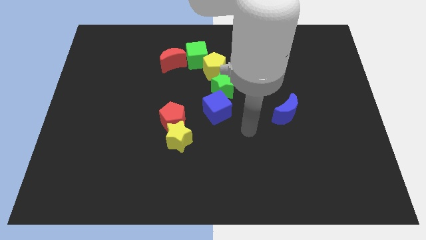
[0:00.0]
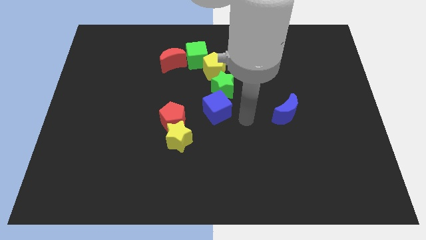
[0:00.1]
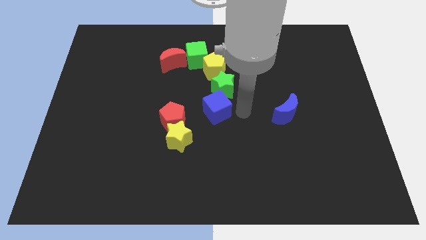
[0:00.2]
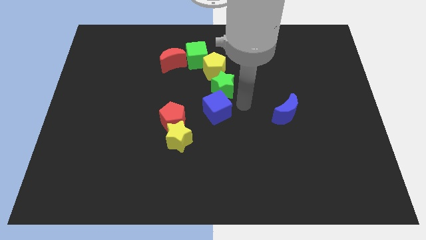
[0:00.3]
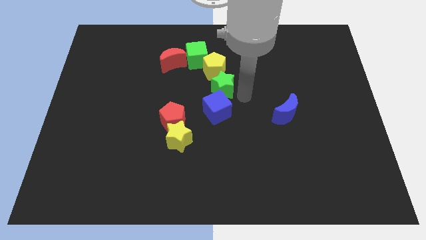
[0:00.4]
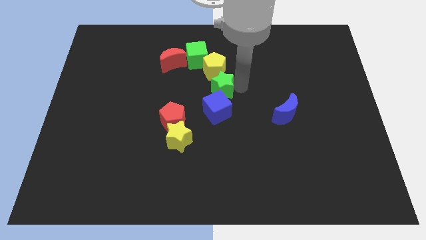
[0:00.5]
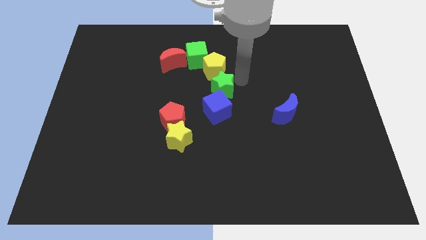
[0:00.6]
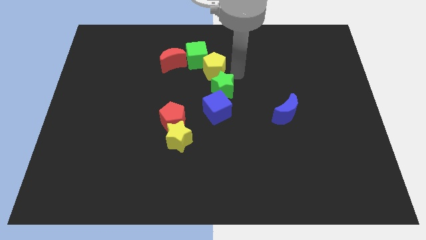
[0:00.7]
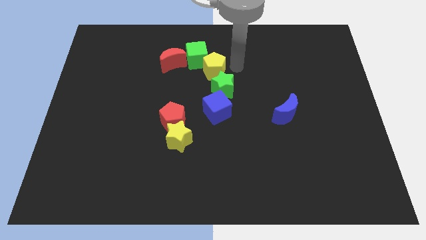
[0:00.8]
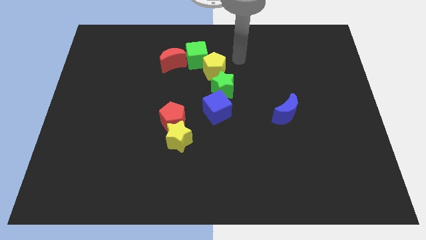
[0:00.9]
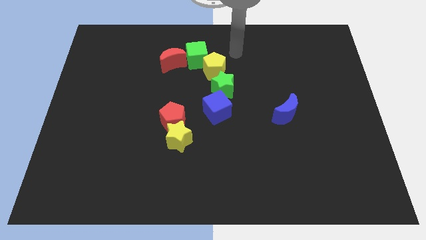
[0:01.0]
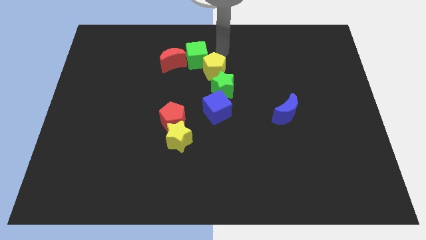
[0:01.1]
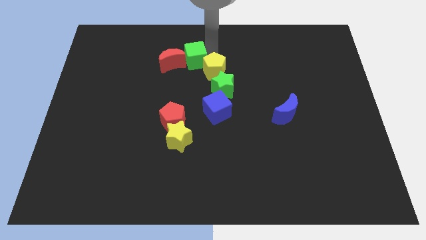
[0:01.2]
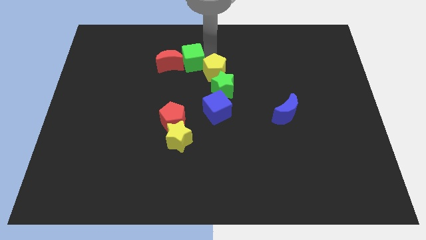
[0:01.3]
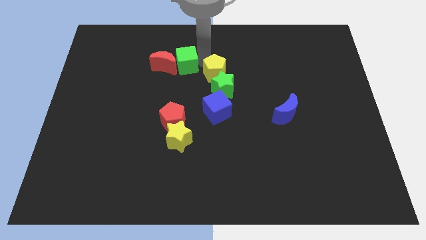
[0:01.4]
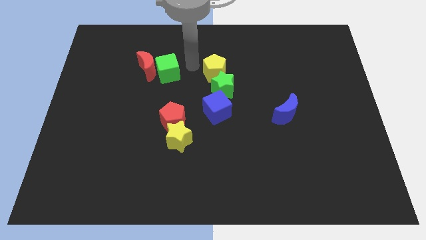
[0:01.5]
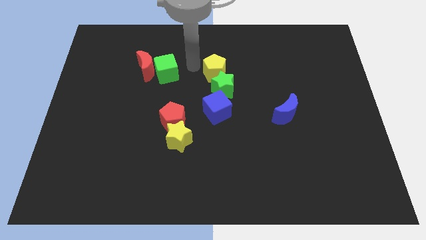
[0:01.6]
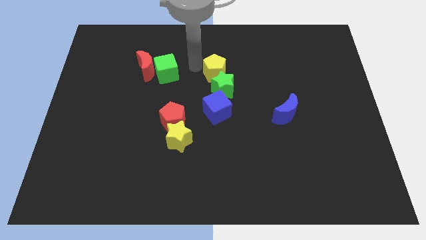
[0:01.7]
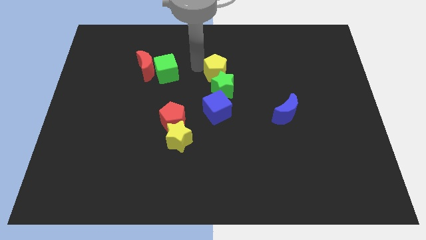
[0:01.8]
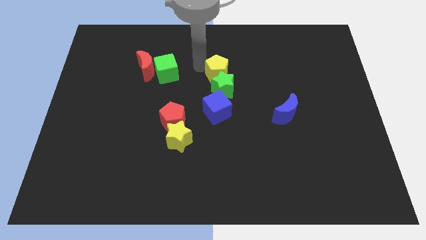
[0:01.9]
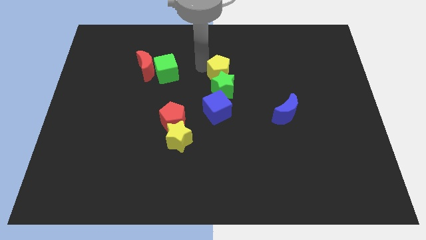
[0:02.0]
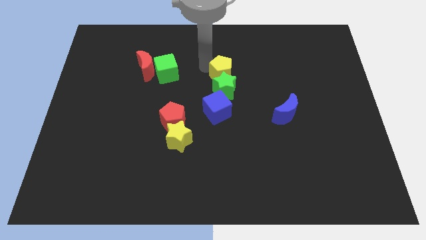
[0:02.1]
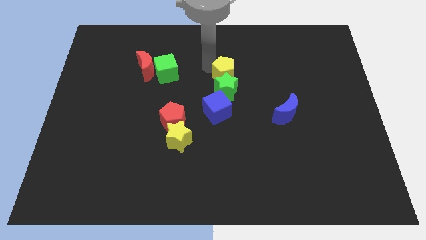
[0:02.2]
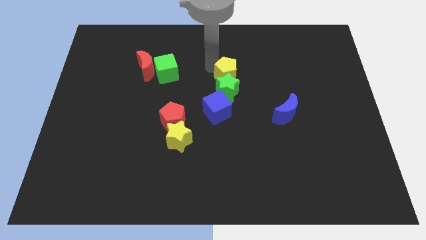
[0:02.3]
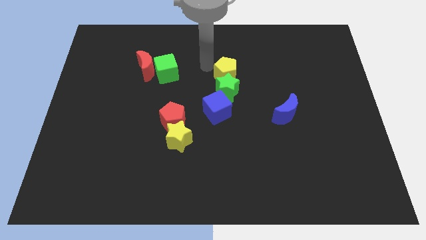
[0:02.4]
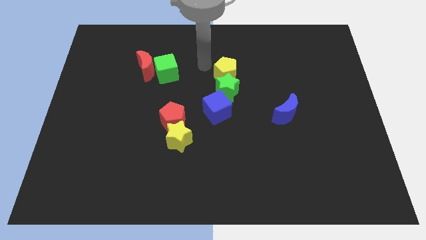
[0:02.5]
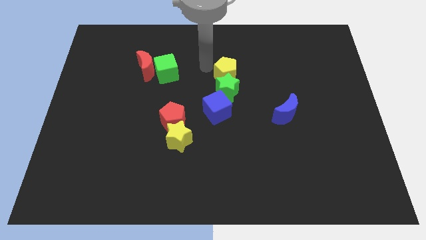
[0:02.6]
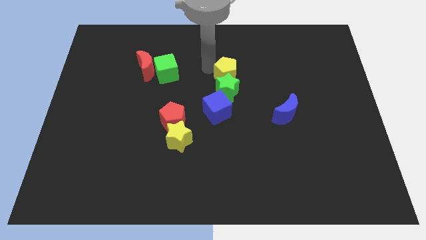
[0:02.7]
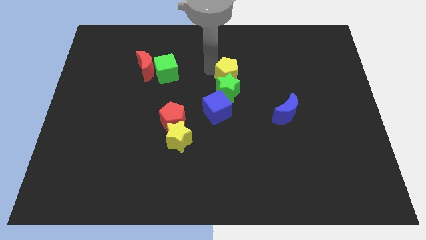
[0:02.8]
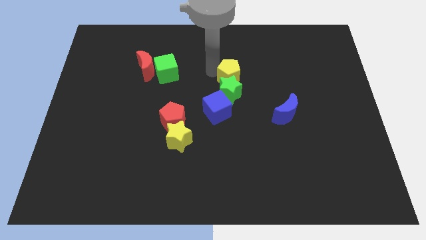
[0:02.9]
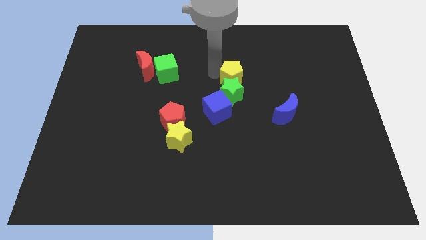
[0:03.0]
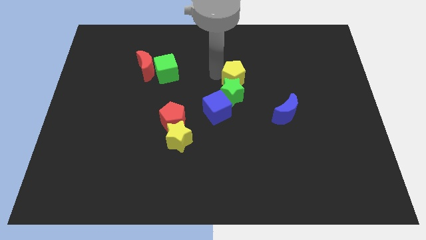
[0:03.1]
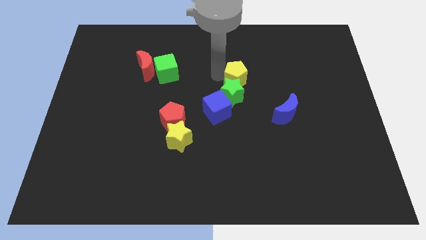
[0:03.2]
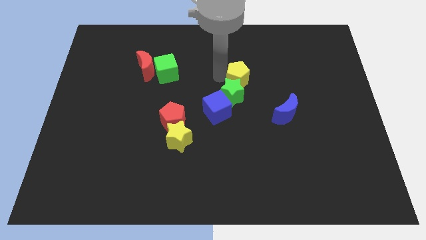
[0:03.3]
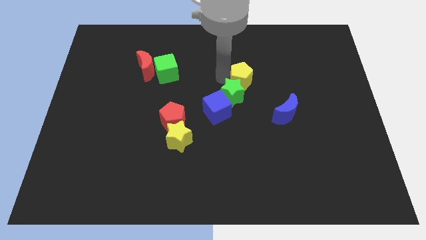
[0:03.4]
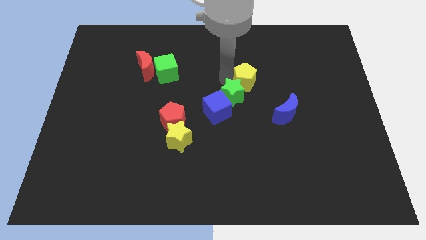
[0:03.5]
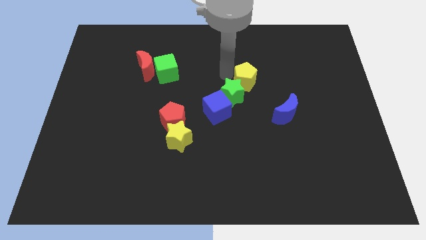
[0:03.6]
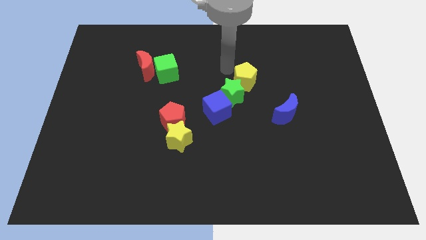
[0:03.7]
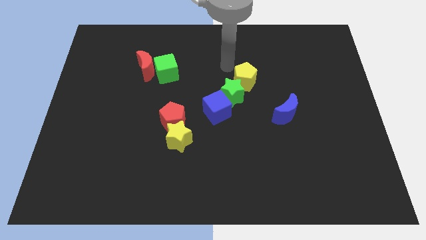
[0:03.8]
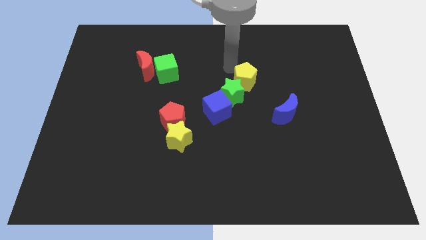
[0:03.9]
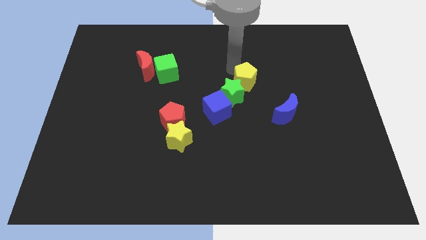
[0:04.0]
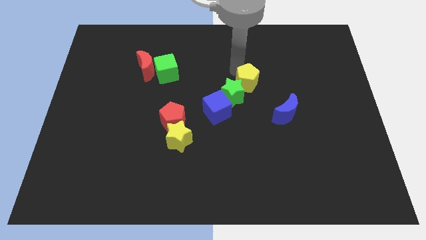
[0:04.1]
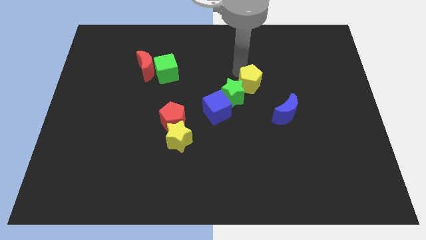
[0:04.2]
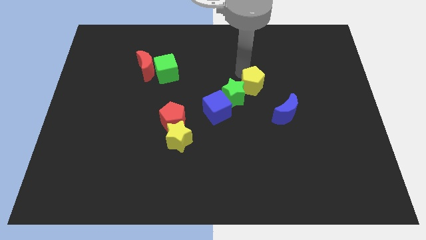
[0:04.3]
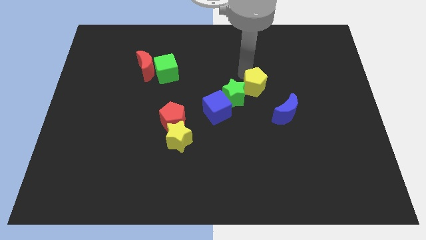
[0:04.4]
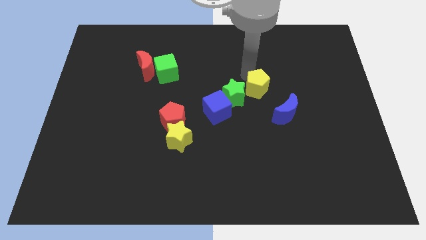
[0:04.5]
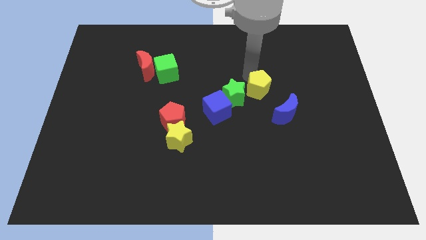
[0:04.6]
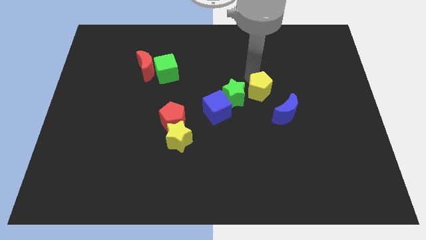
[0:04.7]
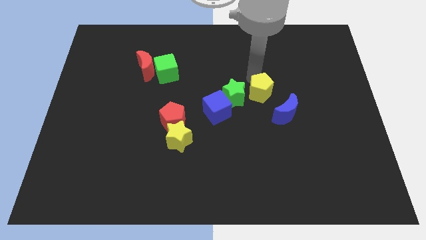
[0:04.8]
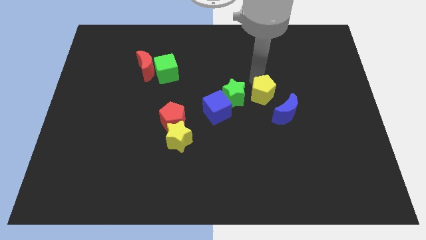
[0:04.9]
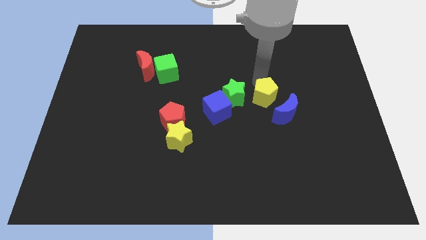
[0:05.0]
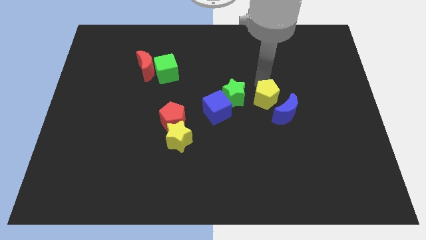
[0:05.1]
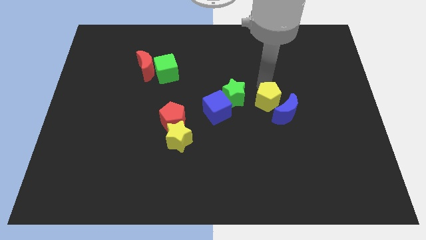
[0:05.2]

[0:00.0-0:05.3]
move the yellow pentagon to the blue moon

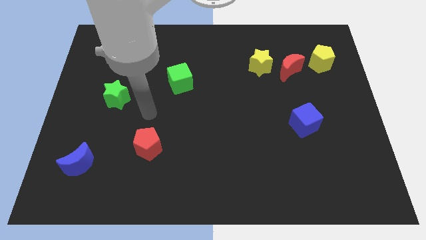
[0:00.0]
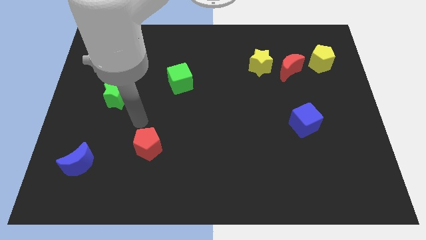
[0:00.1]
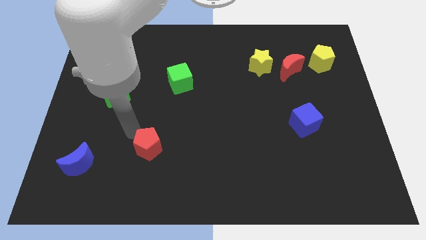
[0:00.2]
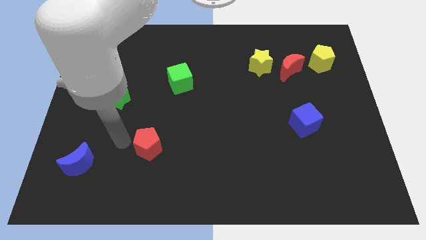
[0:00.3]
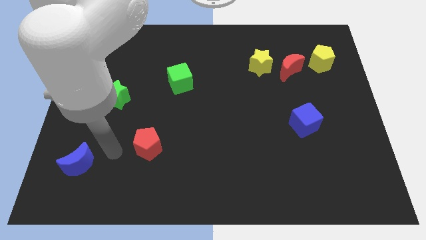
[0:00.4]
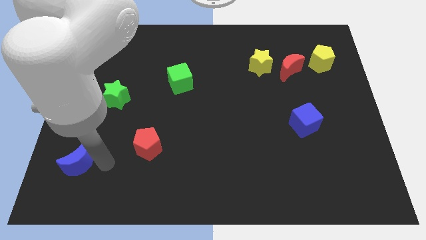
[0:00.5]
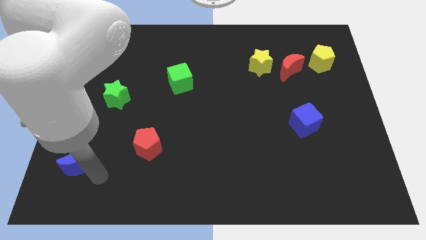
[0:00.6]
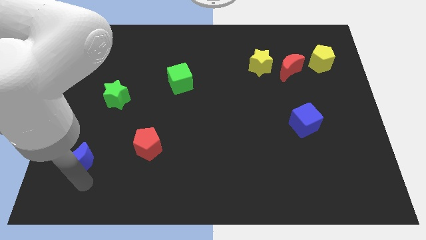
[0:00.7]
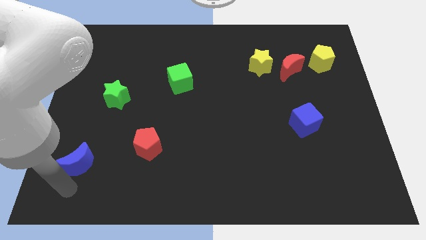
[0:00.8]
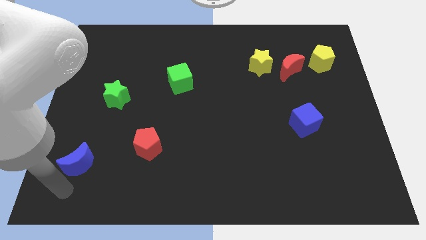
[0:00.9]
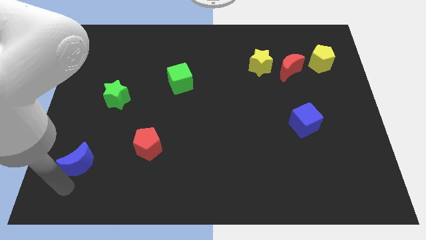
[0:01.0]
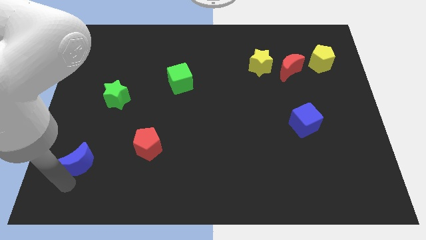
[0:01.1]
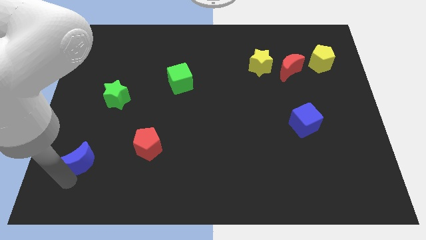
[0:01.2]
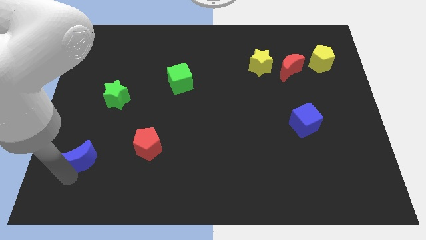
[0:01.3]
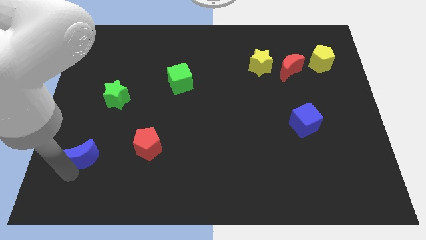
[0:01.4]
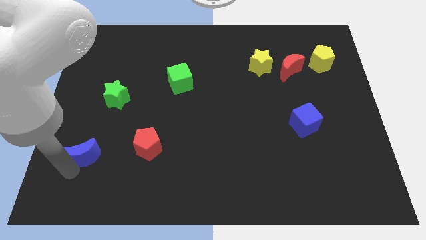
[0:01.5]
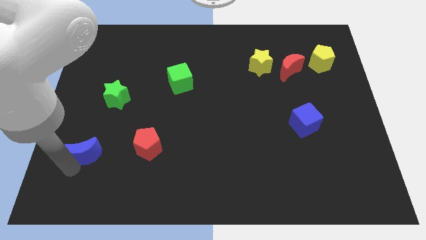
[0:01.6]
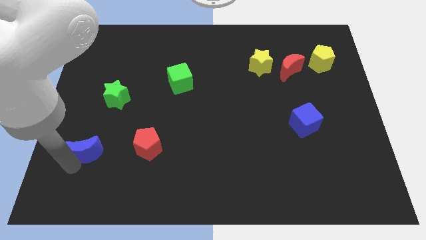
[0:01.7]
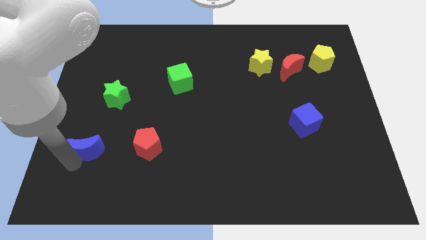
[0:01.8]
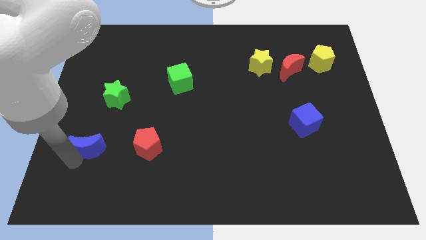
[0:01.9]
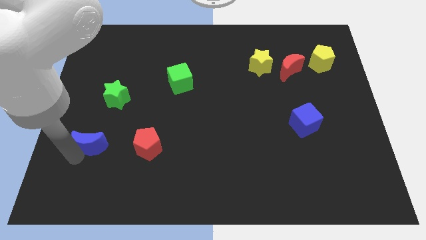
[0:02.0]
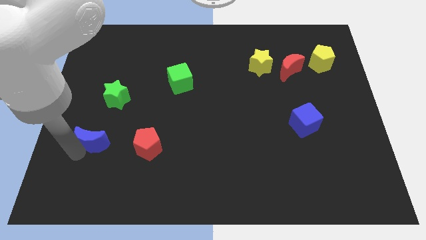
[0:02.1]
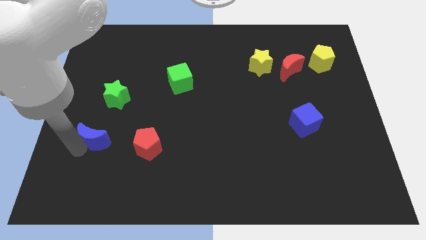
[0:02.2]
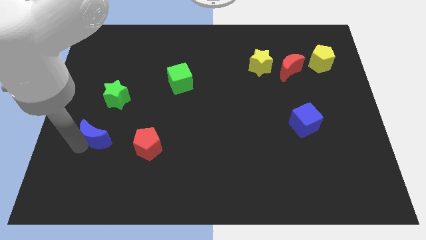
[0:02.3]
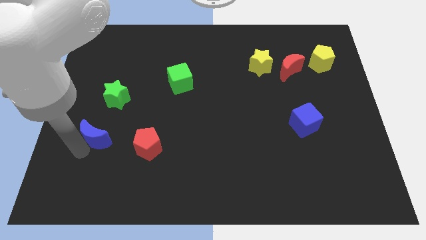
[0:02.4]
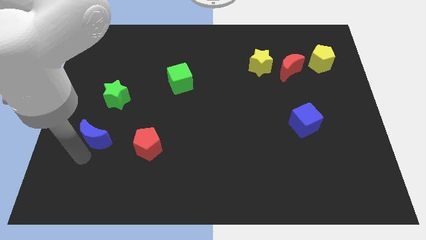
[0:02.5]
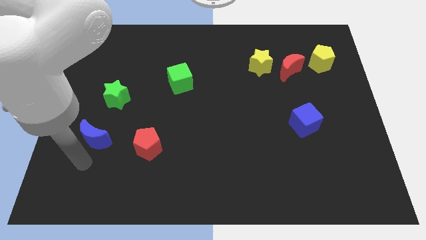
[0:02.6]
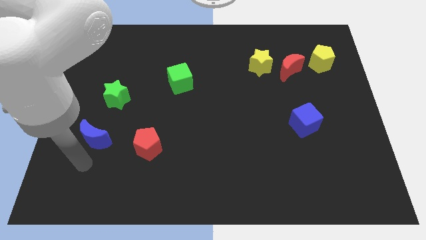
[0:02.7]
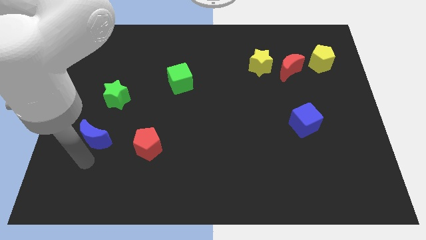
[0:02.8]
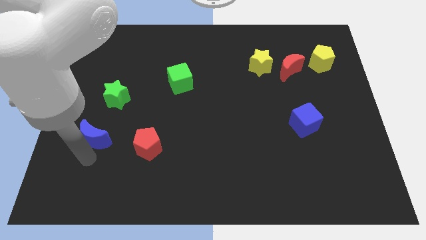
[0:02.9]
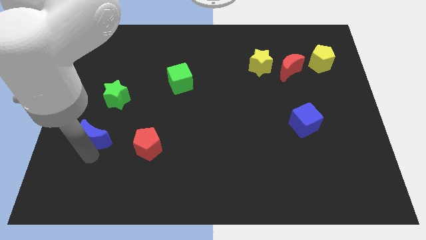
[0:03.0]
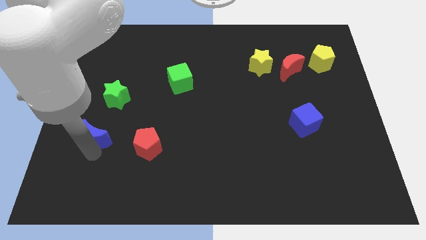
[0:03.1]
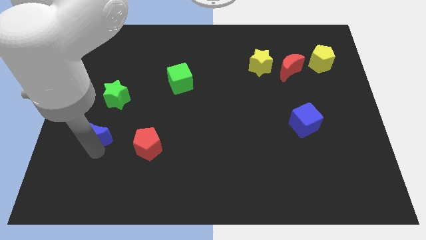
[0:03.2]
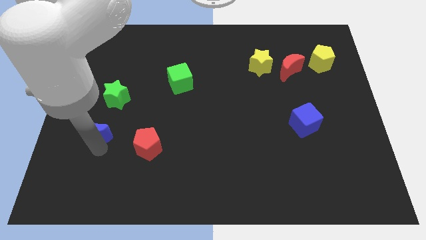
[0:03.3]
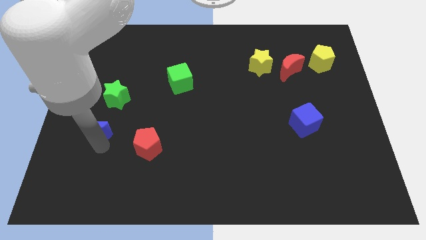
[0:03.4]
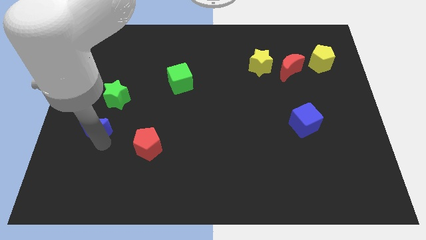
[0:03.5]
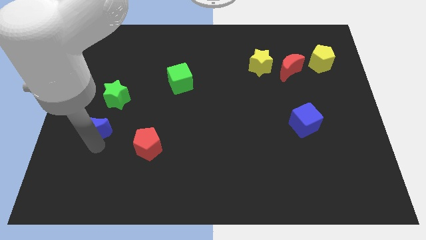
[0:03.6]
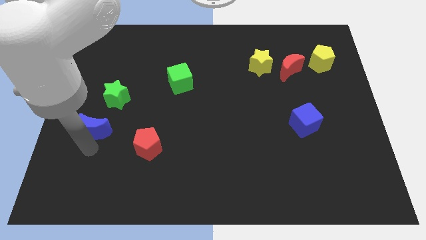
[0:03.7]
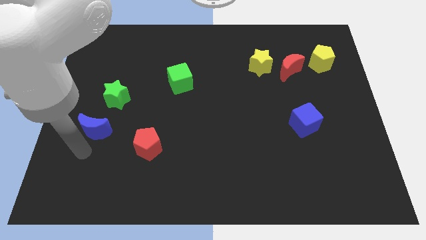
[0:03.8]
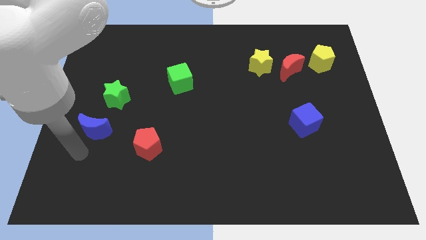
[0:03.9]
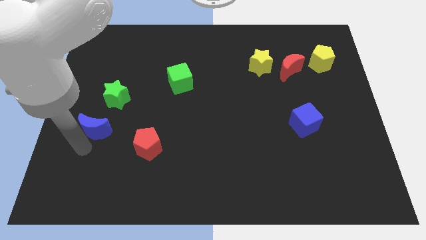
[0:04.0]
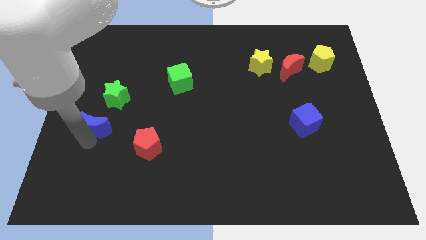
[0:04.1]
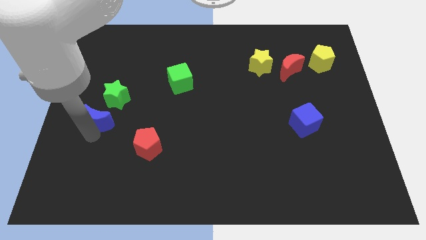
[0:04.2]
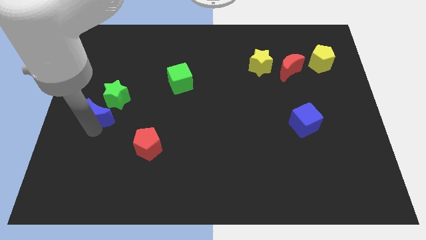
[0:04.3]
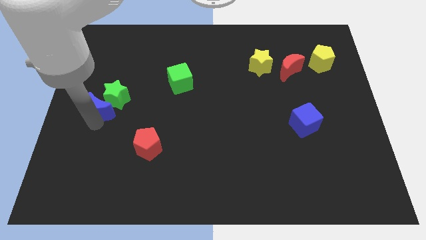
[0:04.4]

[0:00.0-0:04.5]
push the blue moon next to the green star
